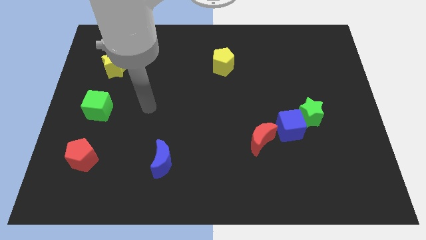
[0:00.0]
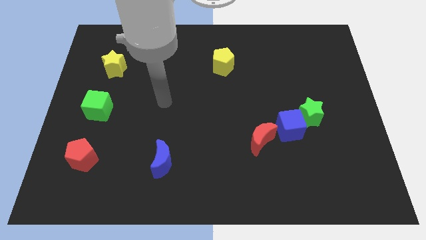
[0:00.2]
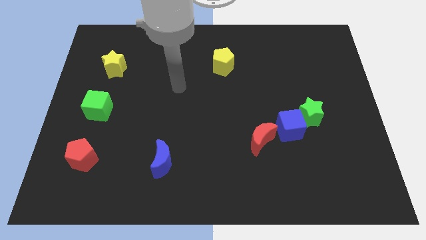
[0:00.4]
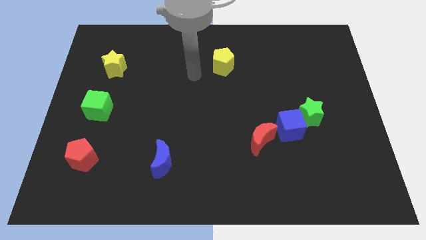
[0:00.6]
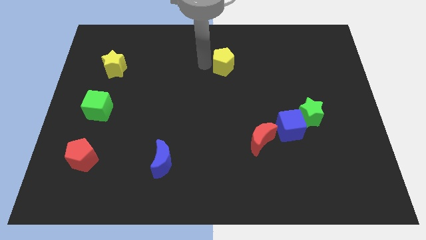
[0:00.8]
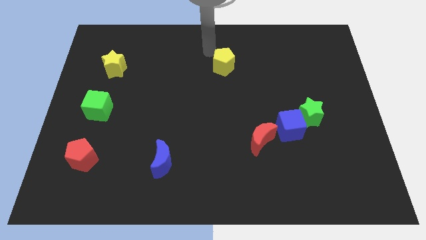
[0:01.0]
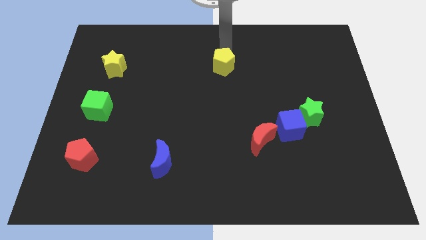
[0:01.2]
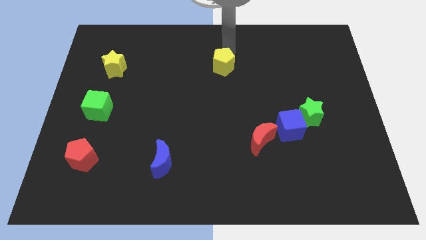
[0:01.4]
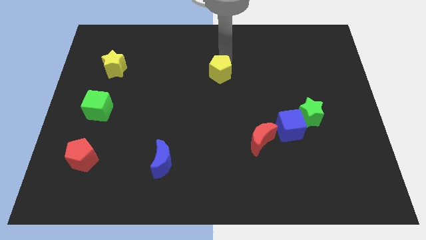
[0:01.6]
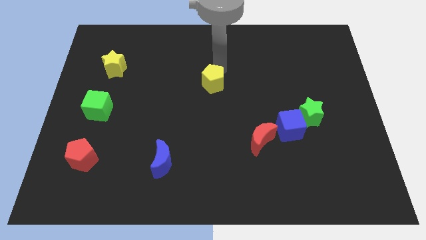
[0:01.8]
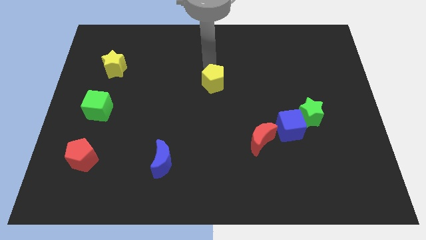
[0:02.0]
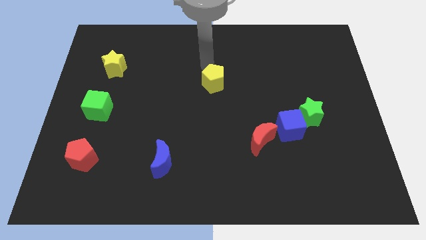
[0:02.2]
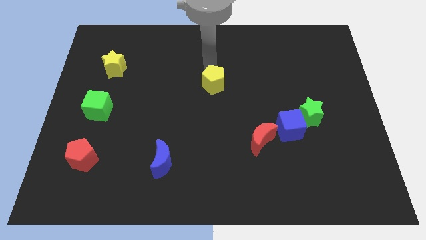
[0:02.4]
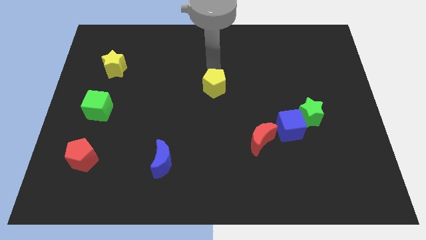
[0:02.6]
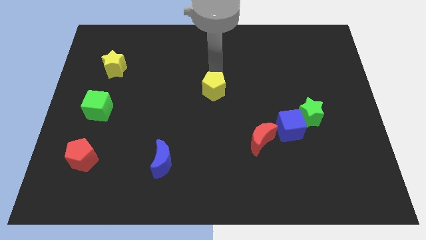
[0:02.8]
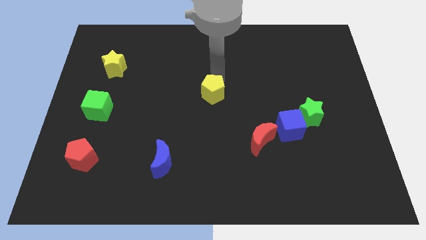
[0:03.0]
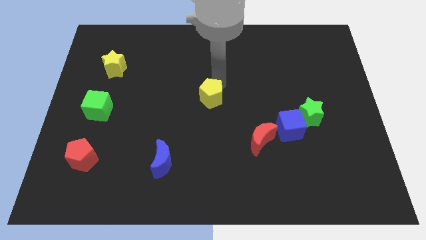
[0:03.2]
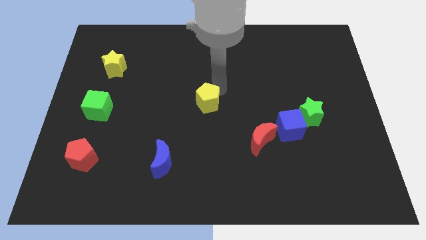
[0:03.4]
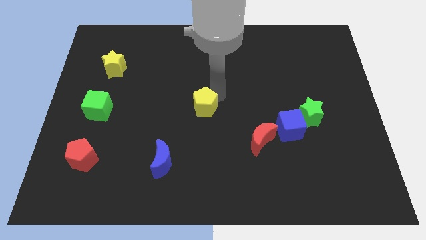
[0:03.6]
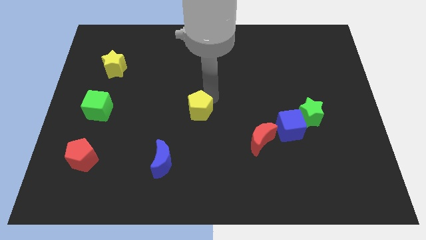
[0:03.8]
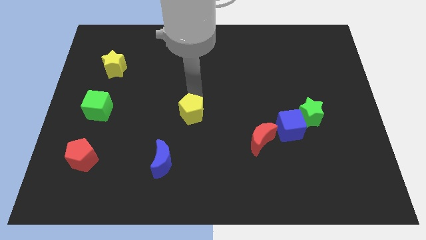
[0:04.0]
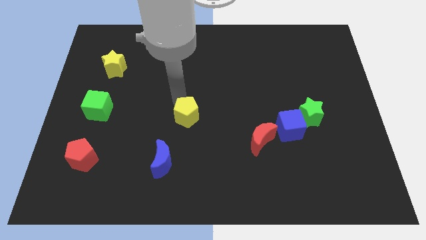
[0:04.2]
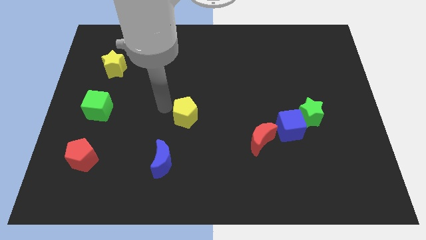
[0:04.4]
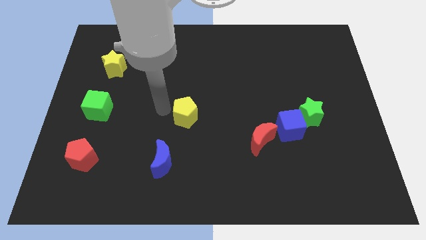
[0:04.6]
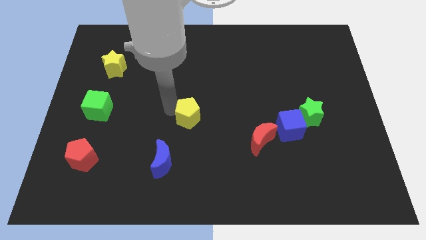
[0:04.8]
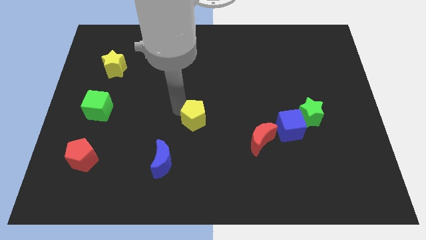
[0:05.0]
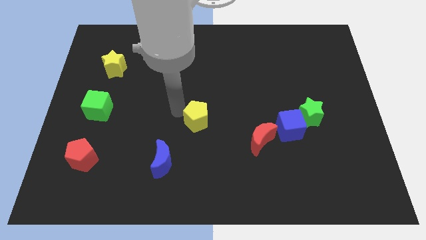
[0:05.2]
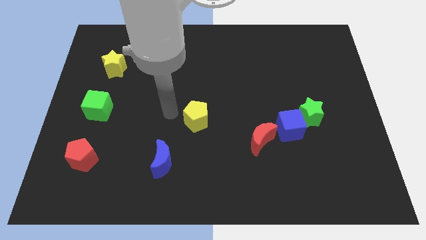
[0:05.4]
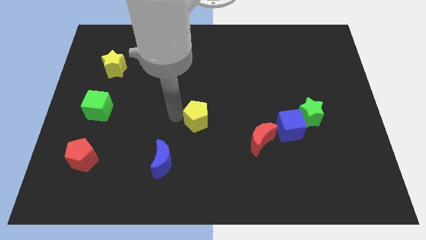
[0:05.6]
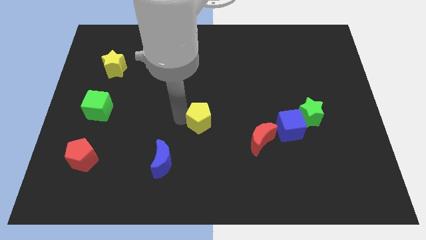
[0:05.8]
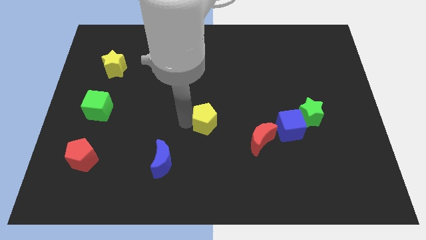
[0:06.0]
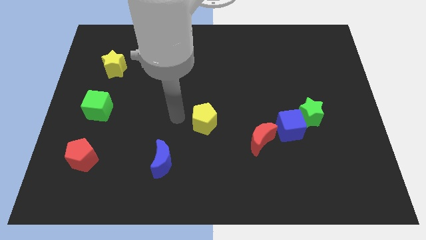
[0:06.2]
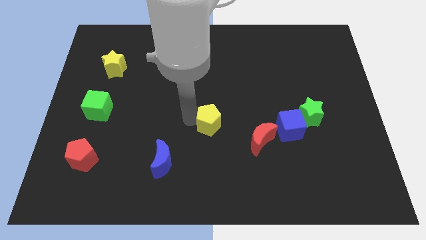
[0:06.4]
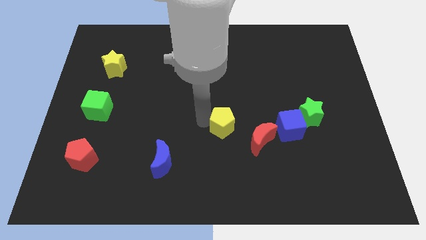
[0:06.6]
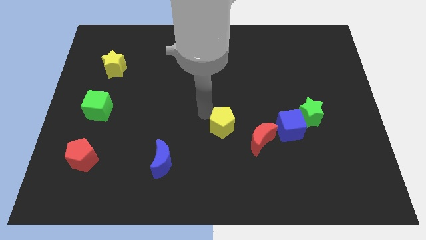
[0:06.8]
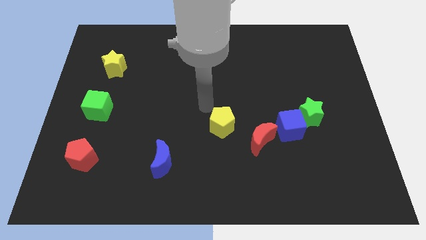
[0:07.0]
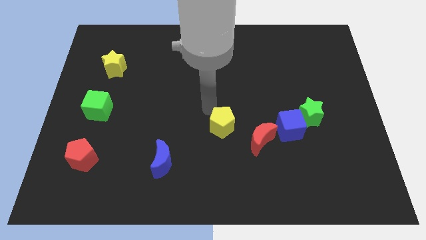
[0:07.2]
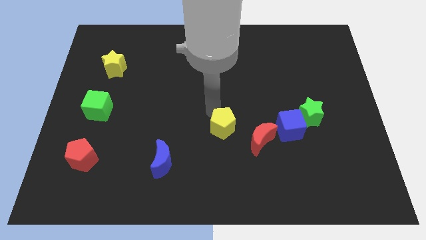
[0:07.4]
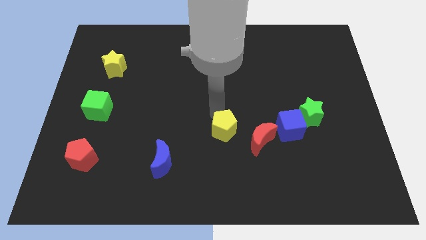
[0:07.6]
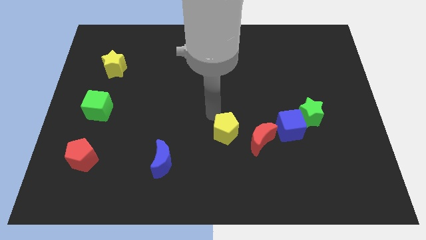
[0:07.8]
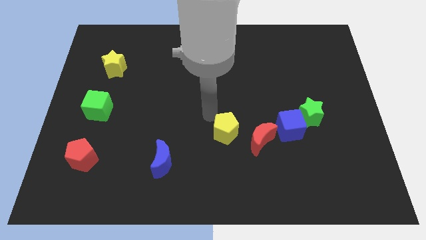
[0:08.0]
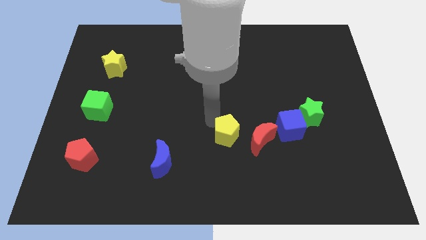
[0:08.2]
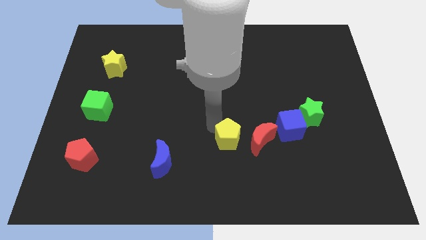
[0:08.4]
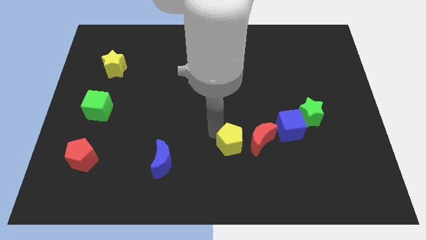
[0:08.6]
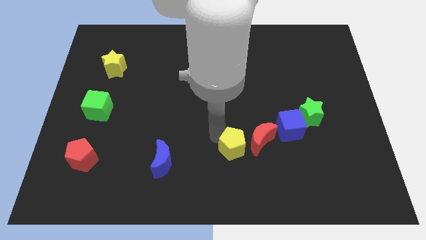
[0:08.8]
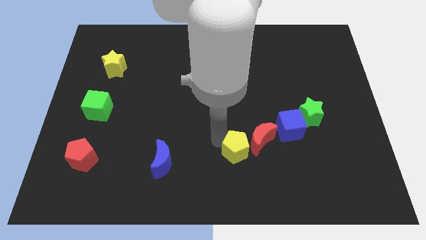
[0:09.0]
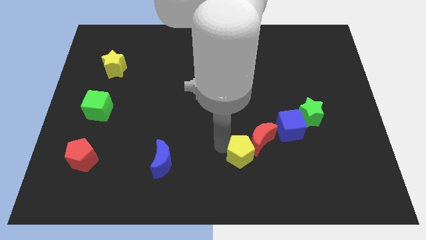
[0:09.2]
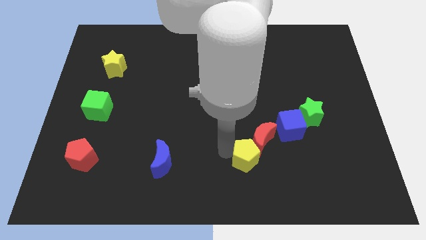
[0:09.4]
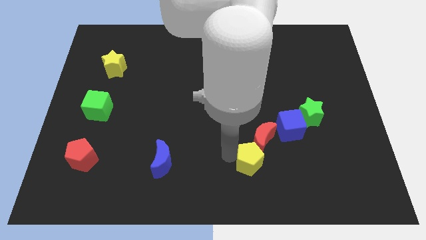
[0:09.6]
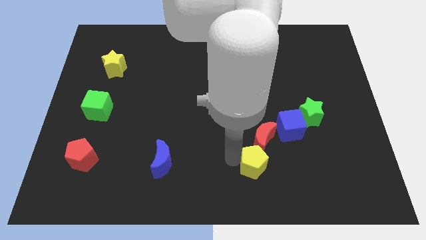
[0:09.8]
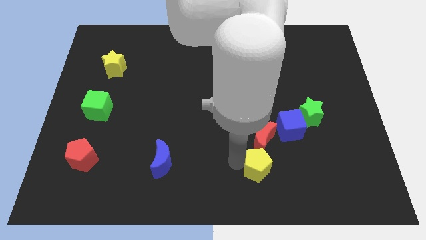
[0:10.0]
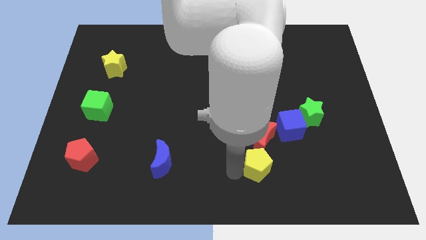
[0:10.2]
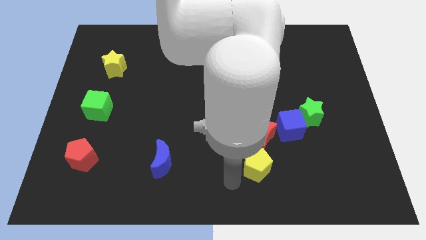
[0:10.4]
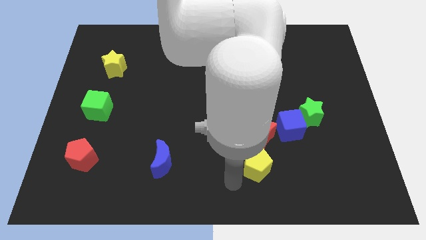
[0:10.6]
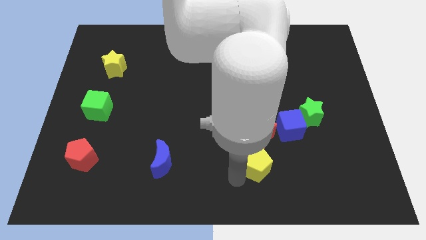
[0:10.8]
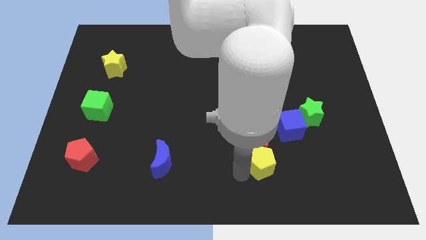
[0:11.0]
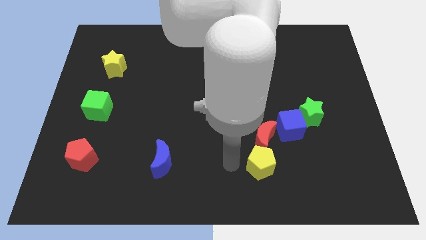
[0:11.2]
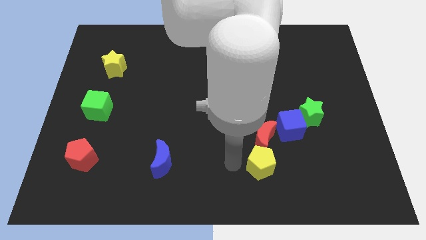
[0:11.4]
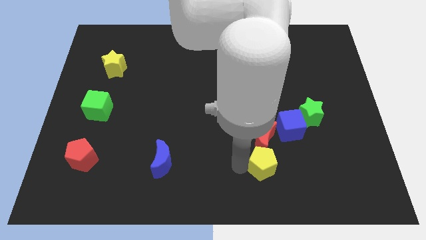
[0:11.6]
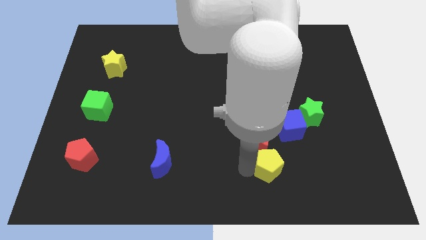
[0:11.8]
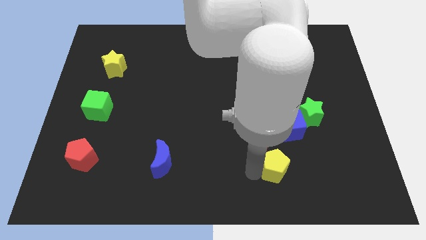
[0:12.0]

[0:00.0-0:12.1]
push the yellow pentagon to the bottom side of the blue cube
